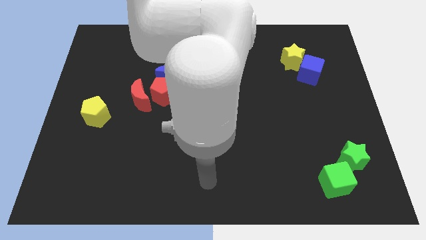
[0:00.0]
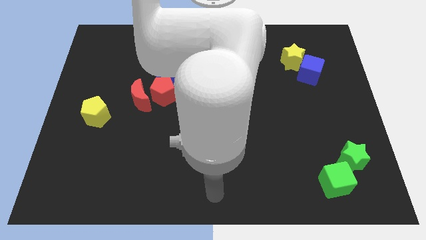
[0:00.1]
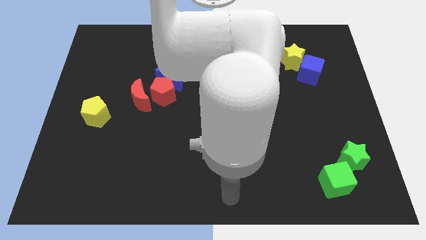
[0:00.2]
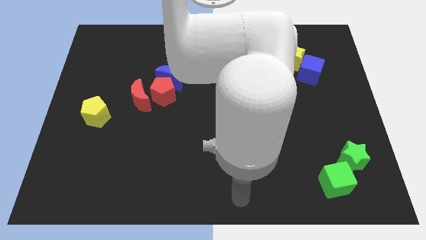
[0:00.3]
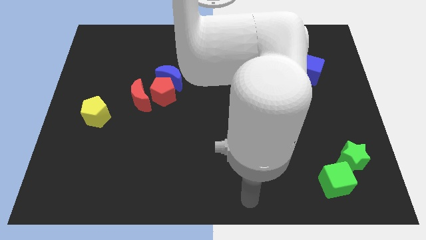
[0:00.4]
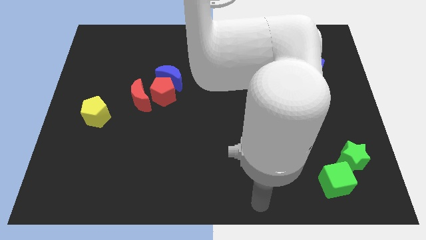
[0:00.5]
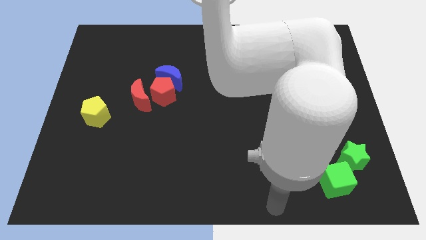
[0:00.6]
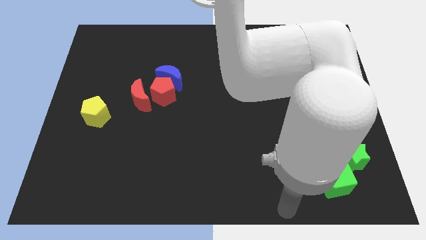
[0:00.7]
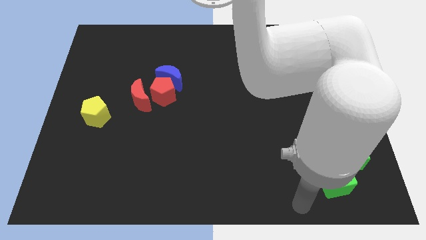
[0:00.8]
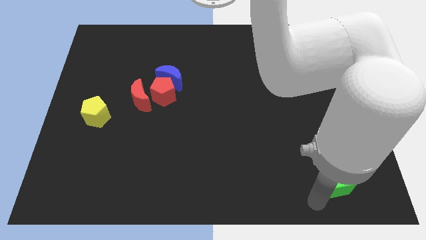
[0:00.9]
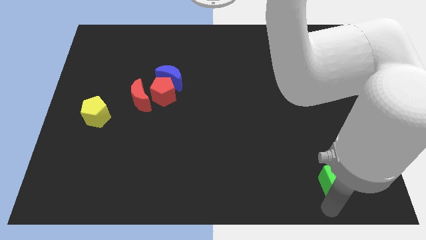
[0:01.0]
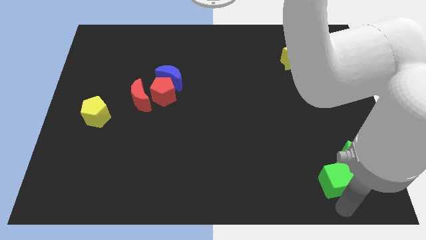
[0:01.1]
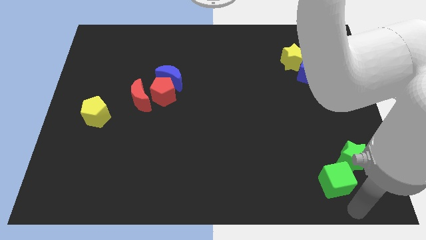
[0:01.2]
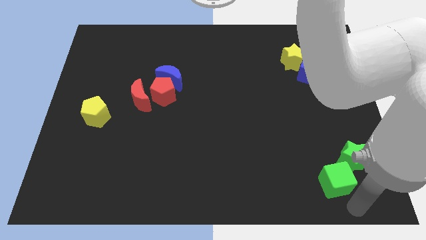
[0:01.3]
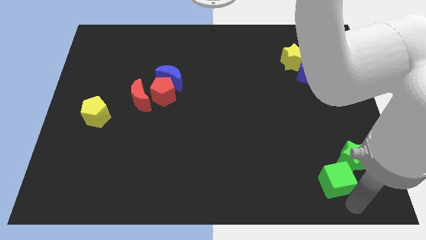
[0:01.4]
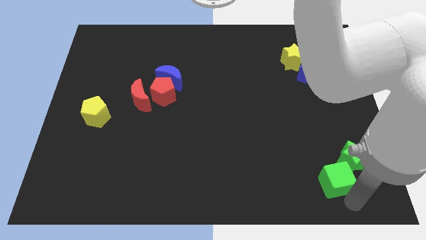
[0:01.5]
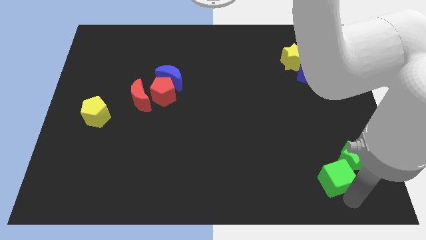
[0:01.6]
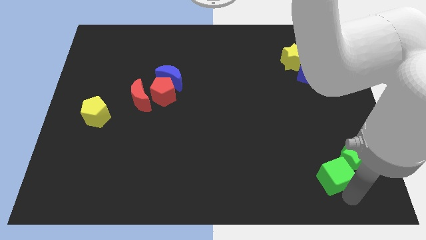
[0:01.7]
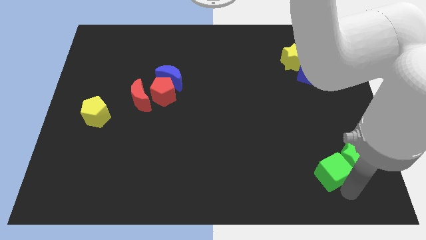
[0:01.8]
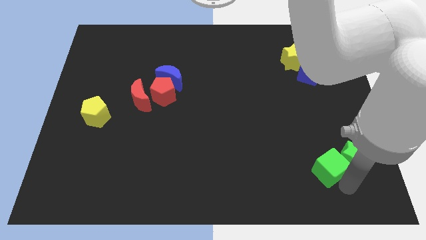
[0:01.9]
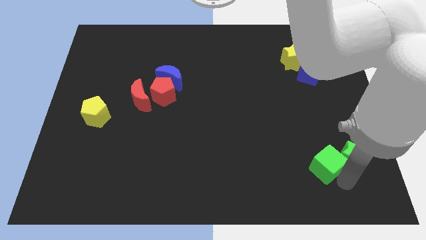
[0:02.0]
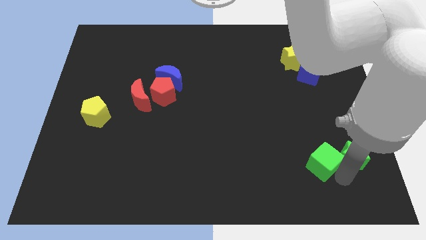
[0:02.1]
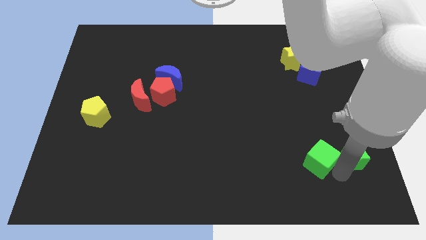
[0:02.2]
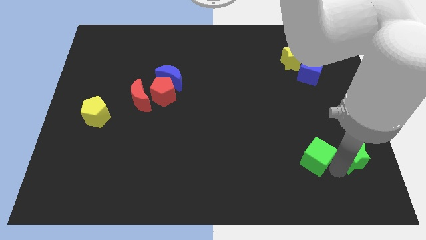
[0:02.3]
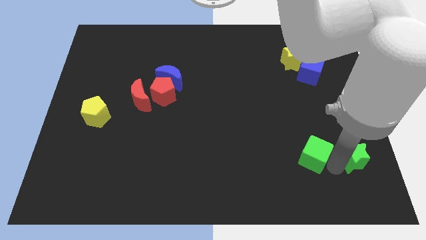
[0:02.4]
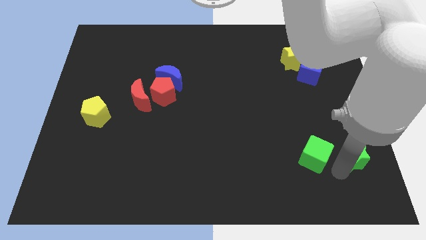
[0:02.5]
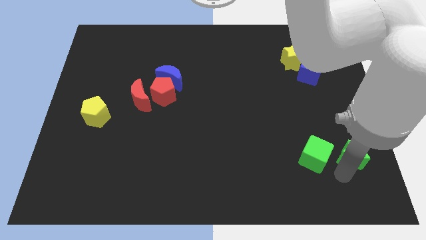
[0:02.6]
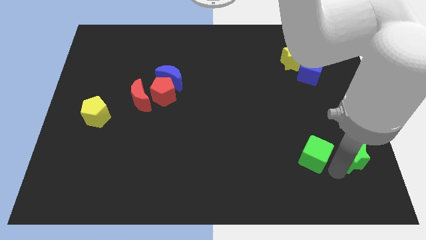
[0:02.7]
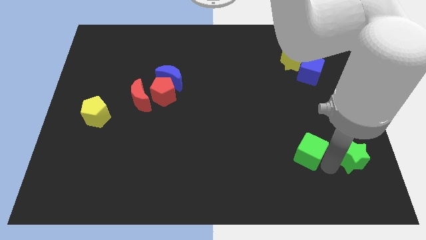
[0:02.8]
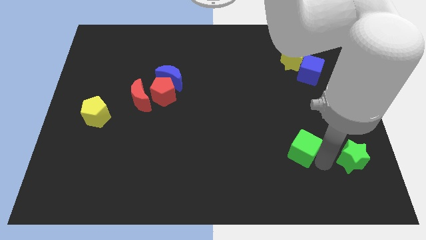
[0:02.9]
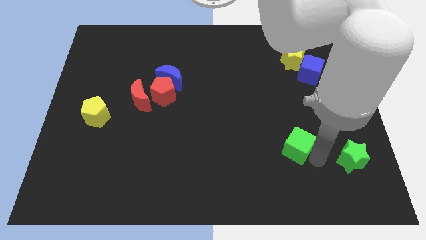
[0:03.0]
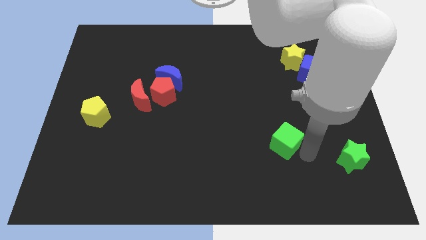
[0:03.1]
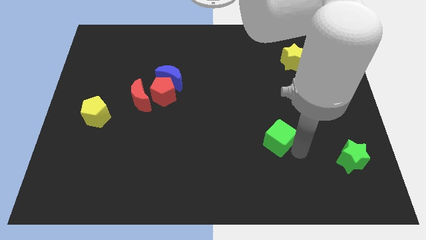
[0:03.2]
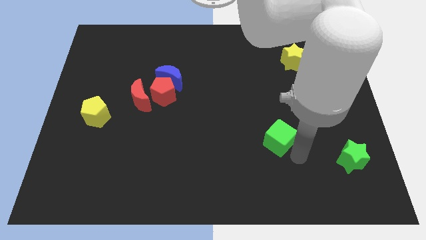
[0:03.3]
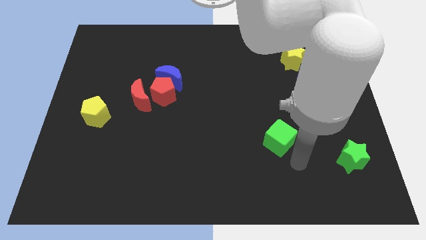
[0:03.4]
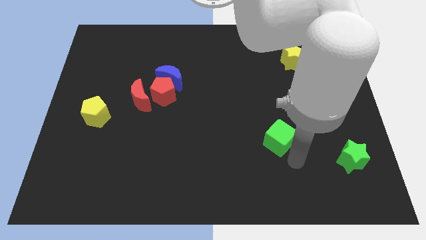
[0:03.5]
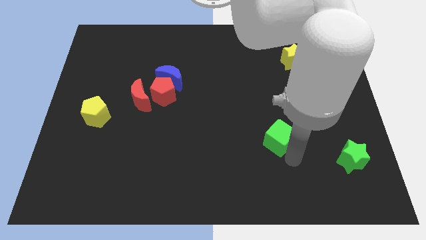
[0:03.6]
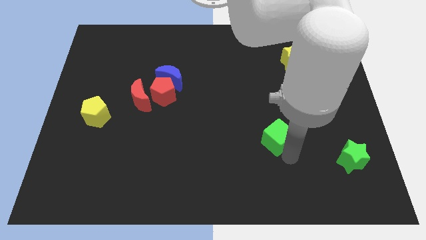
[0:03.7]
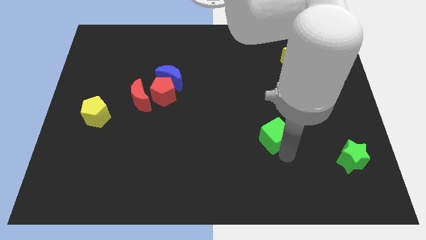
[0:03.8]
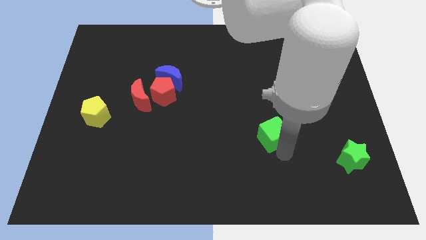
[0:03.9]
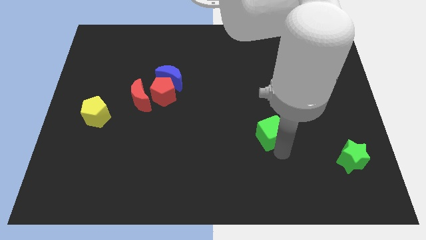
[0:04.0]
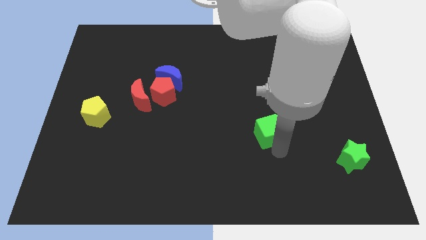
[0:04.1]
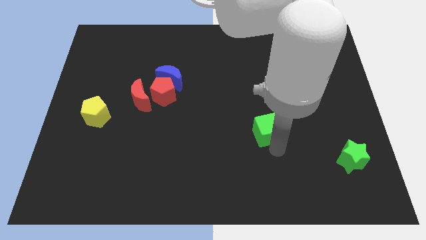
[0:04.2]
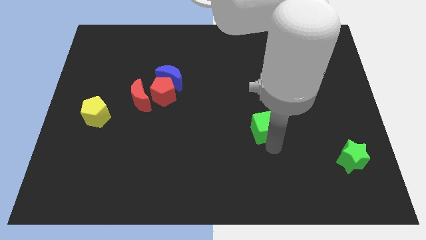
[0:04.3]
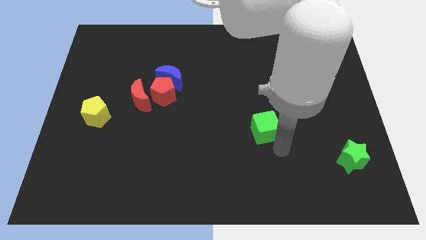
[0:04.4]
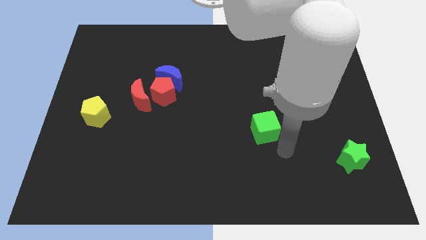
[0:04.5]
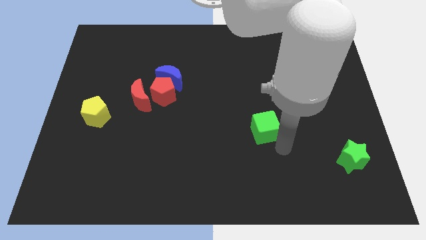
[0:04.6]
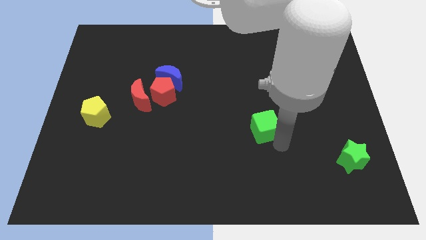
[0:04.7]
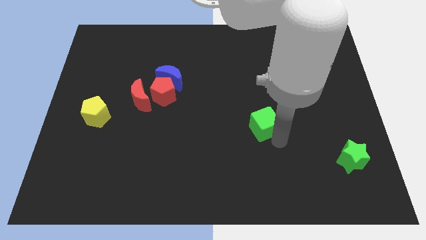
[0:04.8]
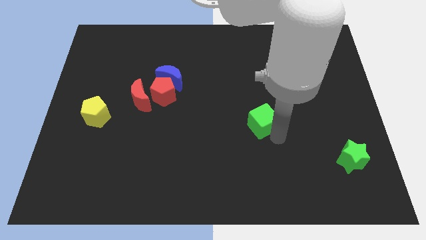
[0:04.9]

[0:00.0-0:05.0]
move the green cube up and left

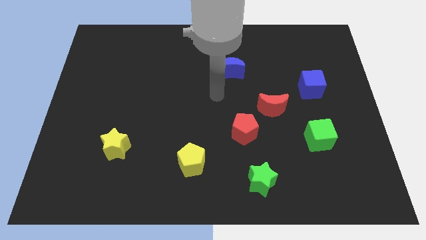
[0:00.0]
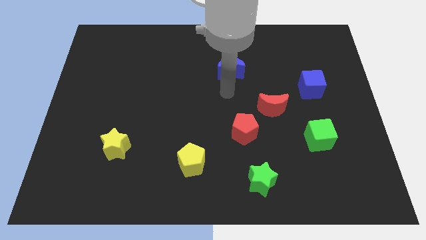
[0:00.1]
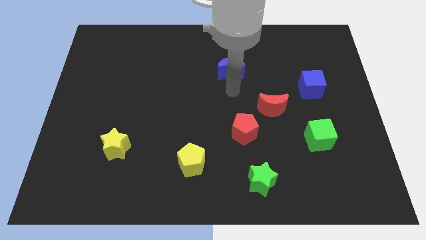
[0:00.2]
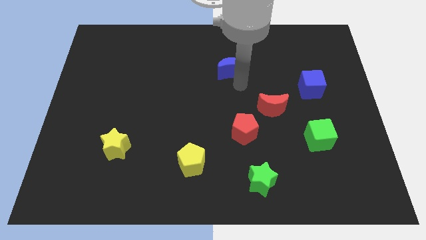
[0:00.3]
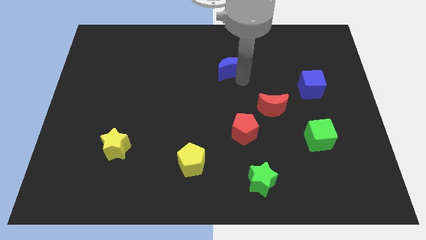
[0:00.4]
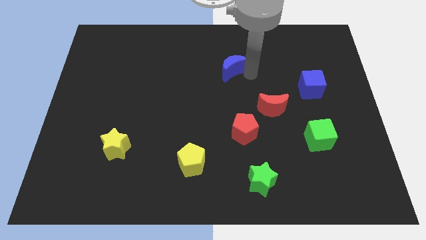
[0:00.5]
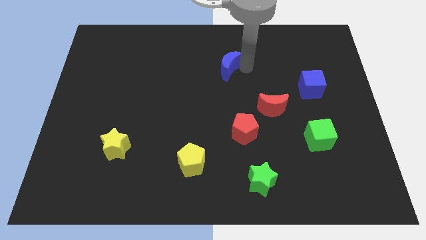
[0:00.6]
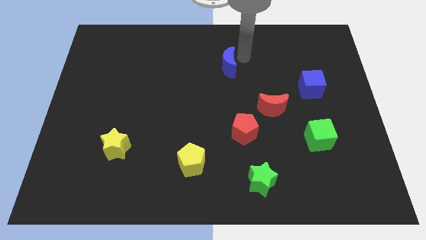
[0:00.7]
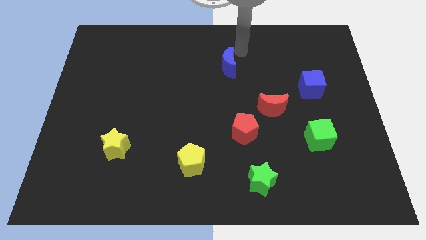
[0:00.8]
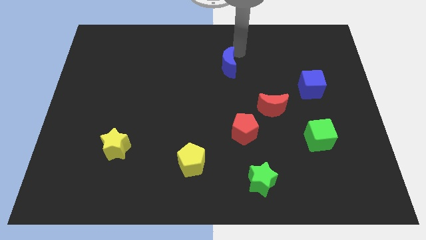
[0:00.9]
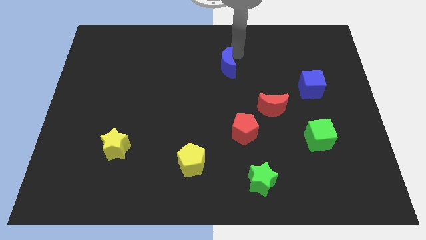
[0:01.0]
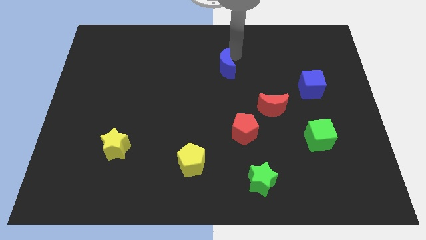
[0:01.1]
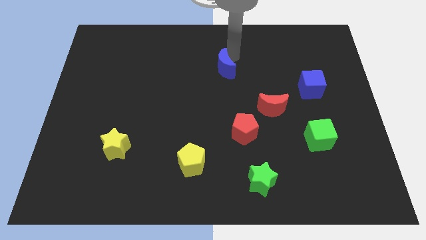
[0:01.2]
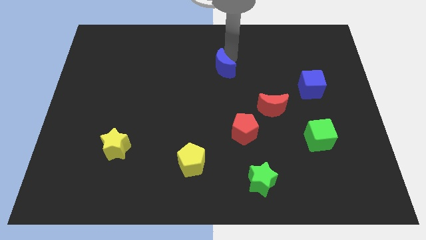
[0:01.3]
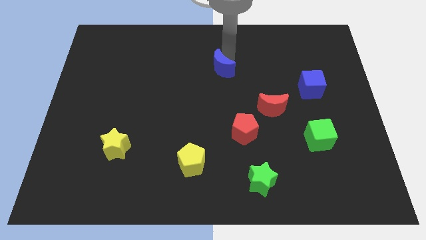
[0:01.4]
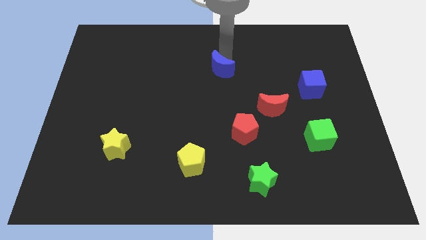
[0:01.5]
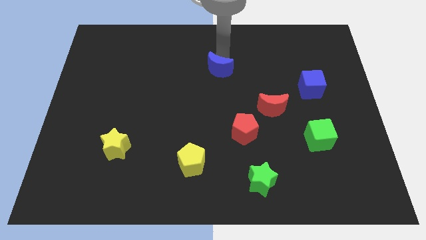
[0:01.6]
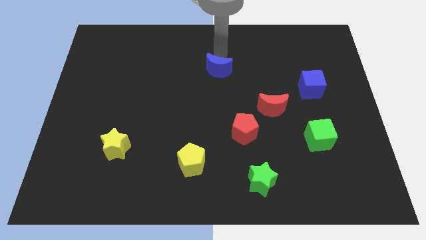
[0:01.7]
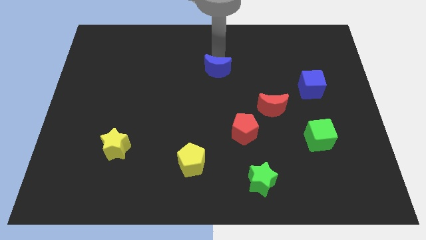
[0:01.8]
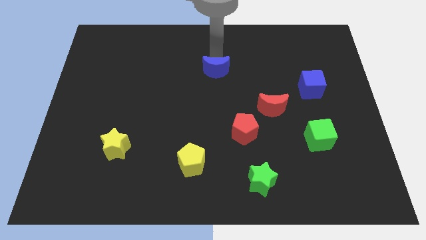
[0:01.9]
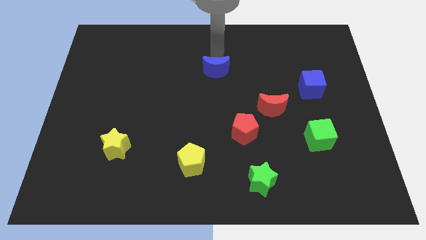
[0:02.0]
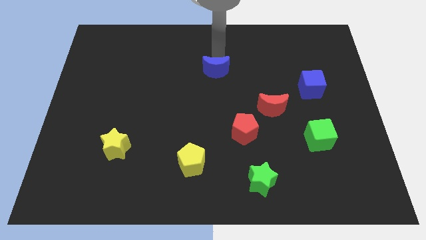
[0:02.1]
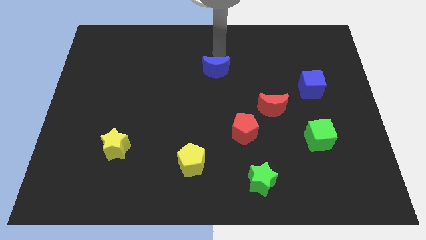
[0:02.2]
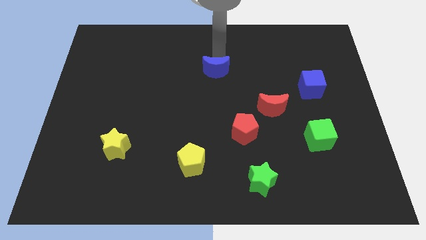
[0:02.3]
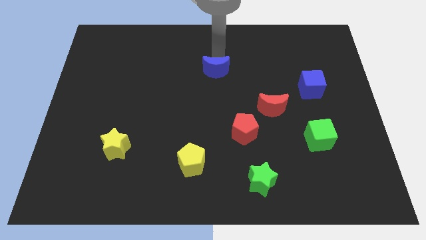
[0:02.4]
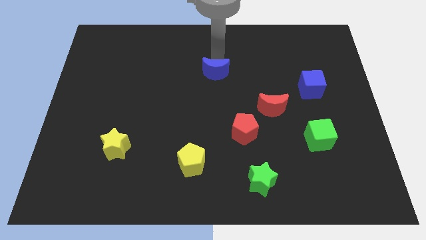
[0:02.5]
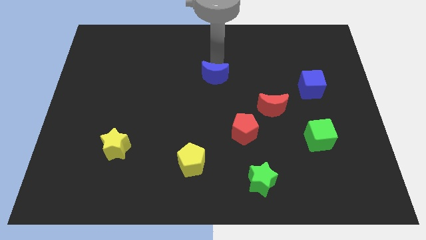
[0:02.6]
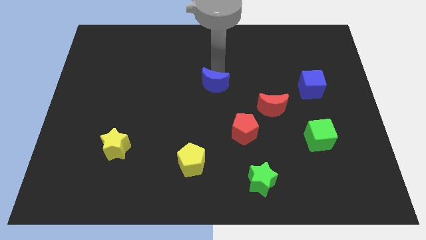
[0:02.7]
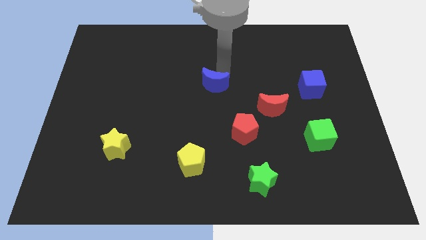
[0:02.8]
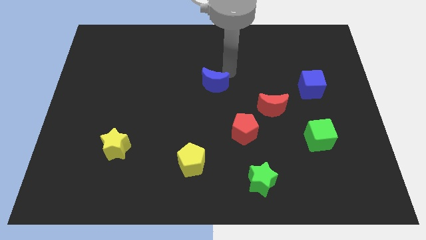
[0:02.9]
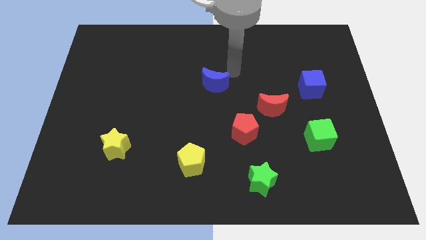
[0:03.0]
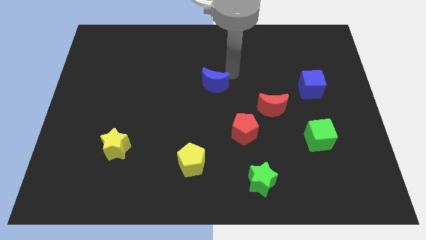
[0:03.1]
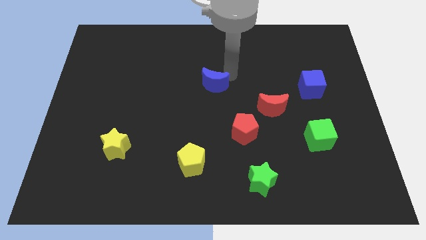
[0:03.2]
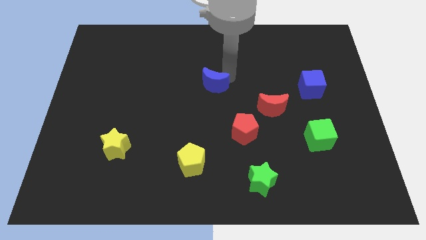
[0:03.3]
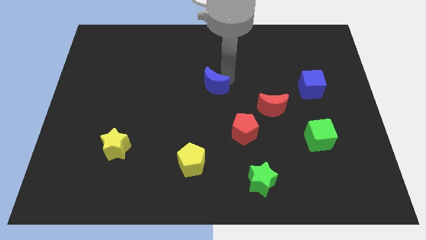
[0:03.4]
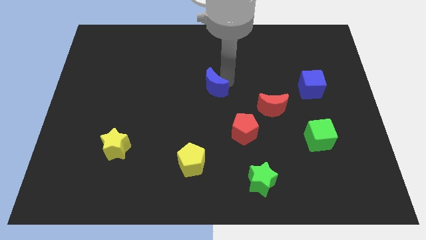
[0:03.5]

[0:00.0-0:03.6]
move the blue moon downwards and left a little
